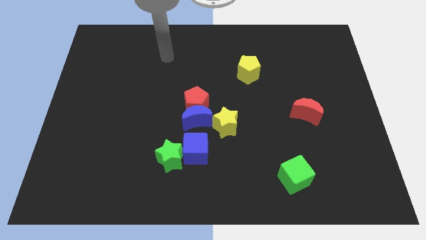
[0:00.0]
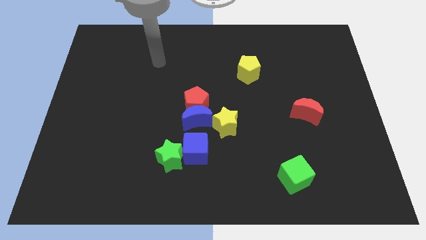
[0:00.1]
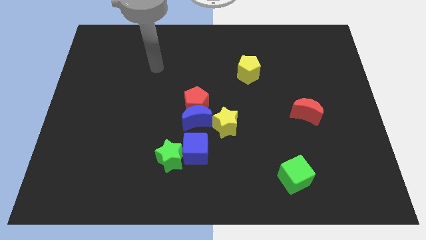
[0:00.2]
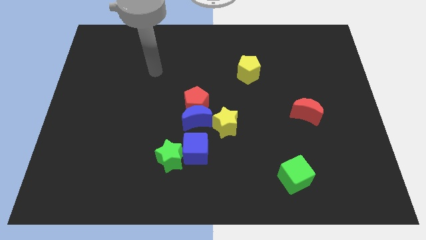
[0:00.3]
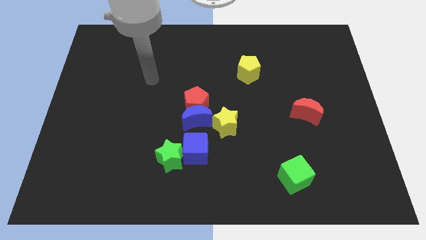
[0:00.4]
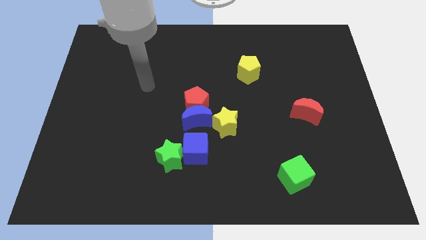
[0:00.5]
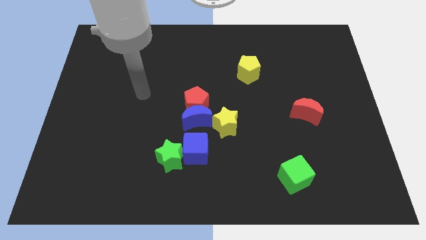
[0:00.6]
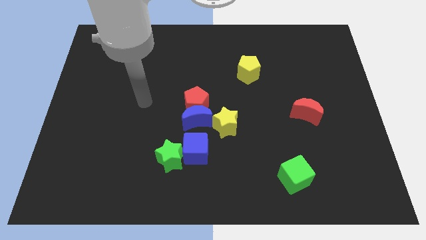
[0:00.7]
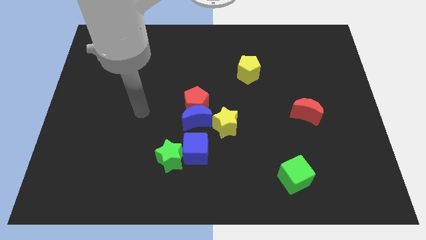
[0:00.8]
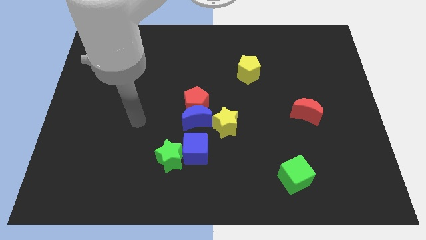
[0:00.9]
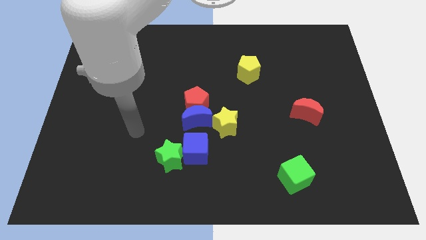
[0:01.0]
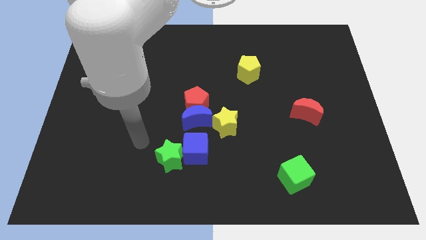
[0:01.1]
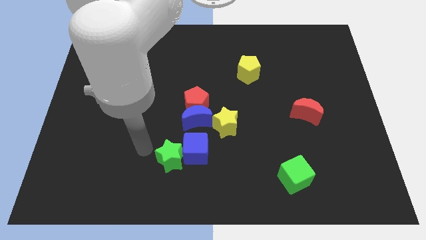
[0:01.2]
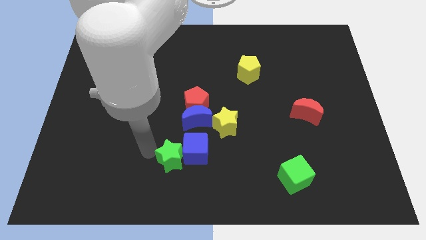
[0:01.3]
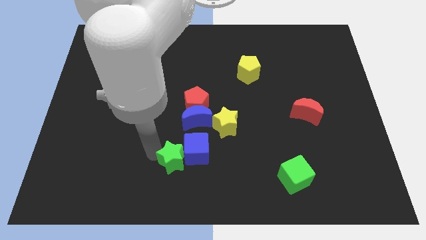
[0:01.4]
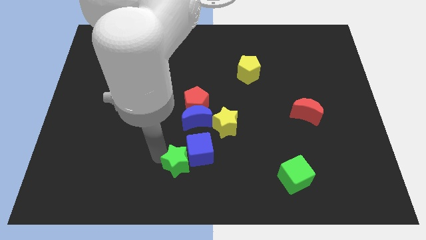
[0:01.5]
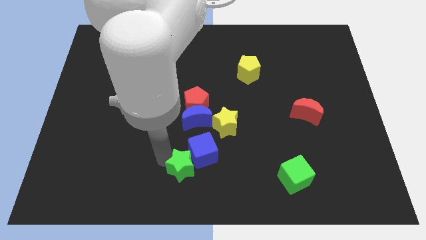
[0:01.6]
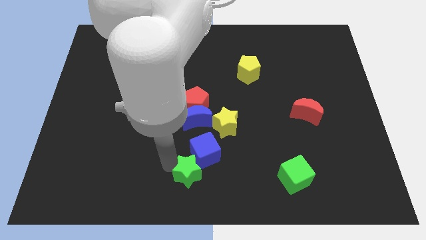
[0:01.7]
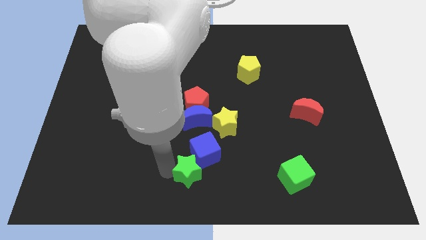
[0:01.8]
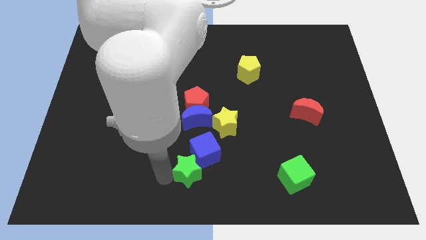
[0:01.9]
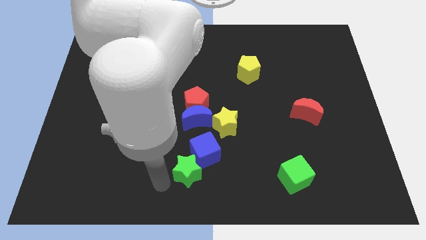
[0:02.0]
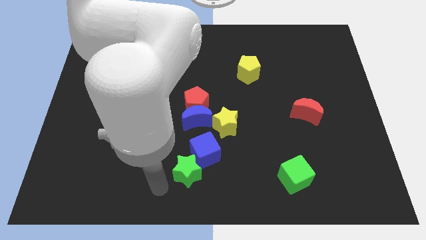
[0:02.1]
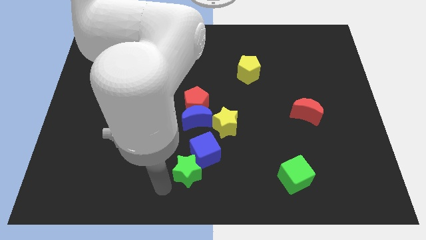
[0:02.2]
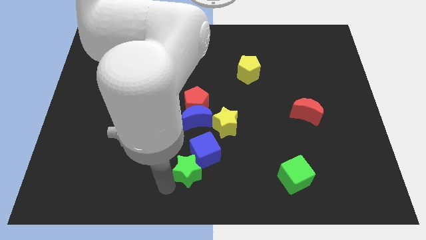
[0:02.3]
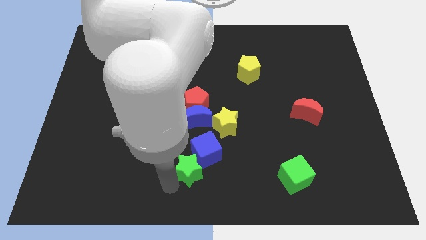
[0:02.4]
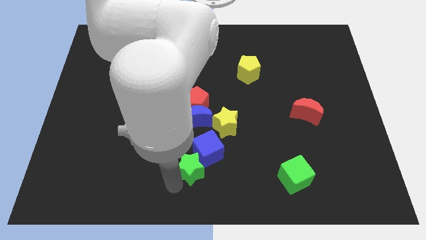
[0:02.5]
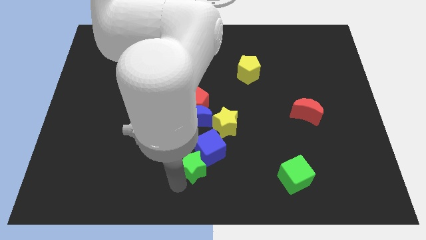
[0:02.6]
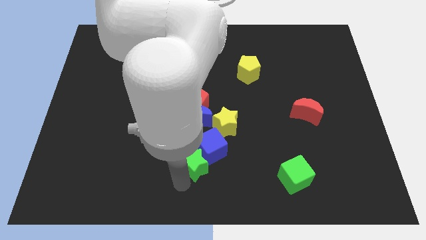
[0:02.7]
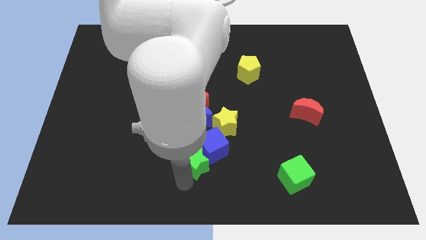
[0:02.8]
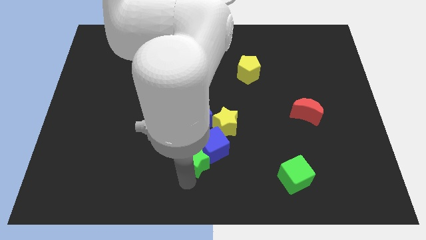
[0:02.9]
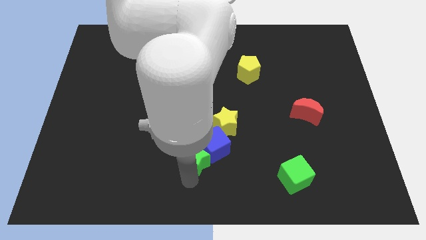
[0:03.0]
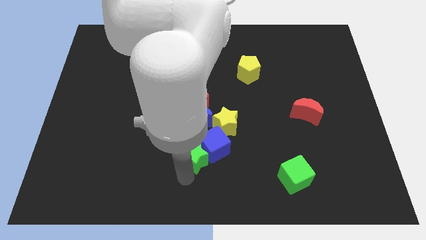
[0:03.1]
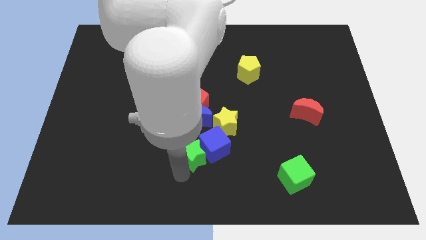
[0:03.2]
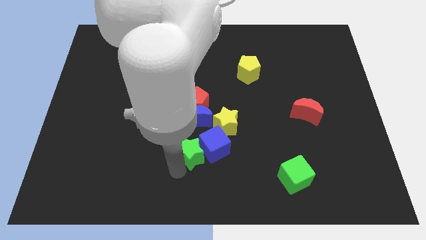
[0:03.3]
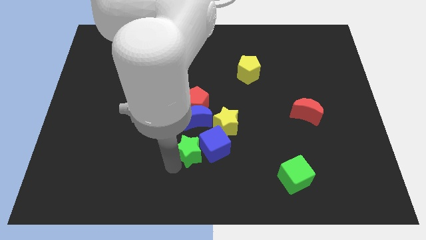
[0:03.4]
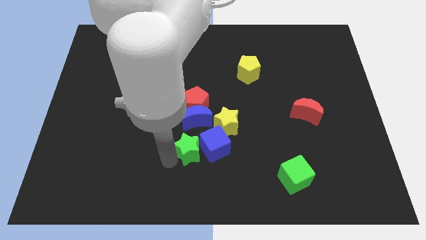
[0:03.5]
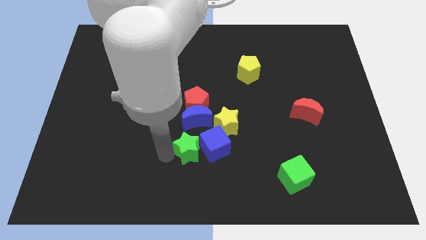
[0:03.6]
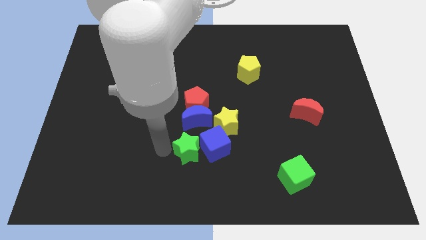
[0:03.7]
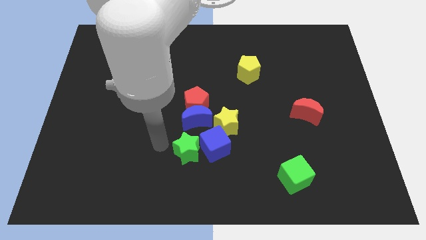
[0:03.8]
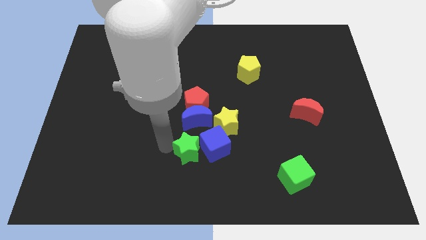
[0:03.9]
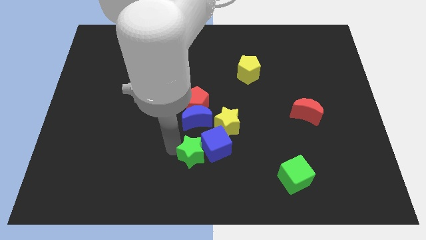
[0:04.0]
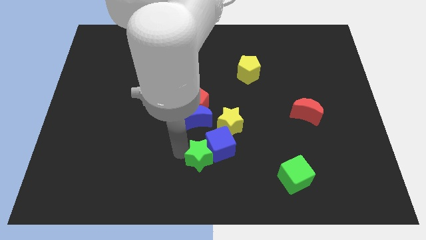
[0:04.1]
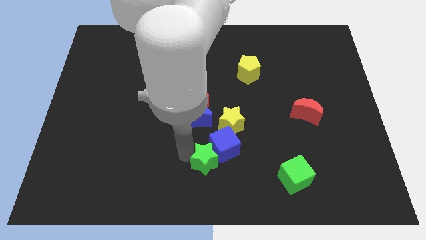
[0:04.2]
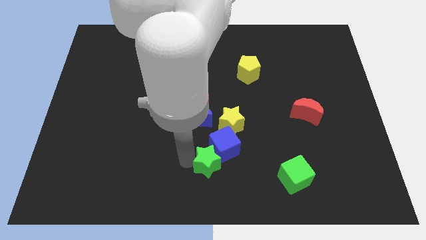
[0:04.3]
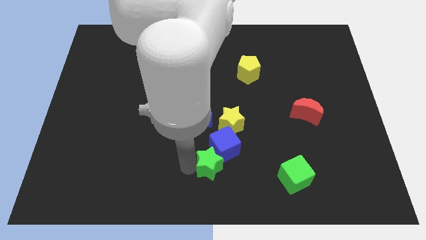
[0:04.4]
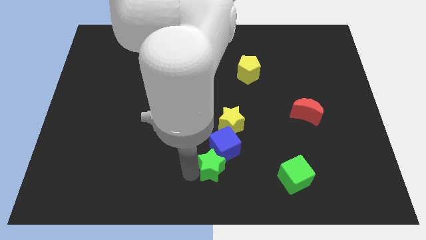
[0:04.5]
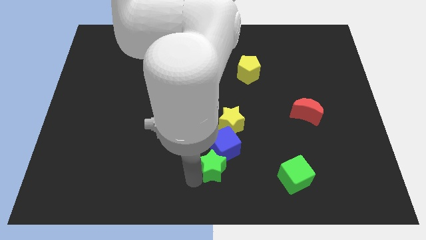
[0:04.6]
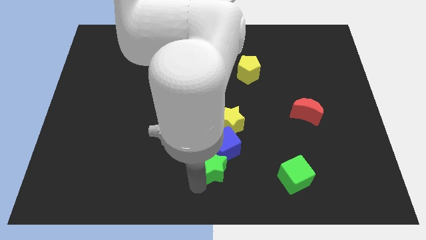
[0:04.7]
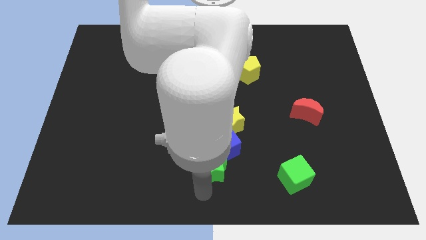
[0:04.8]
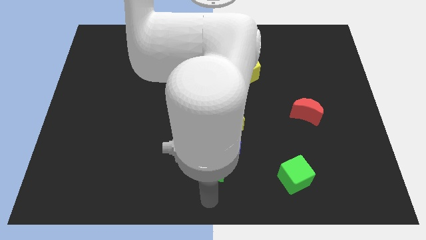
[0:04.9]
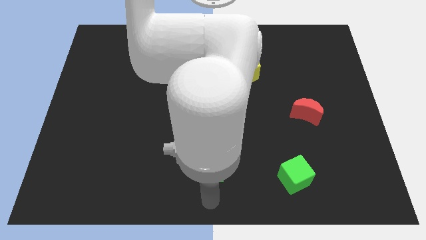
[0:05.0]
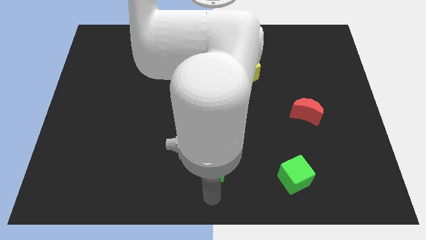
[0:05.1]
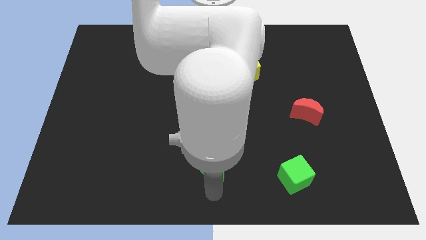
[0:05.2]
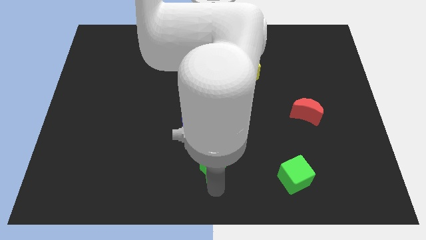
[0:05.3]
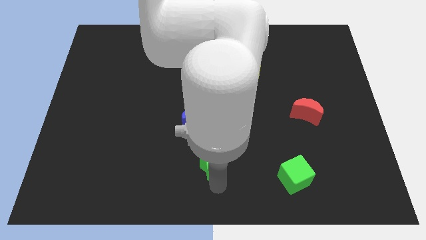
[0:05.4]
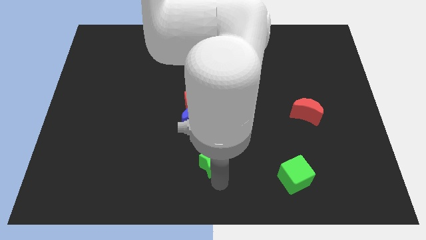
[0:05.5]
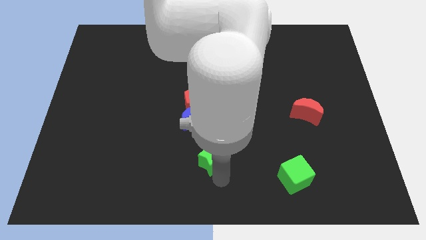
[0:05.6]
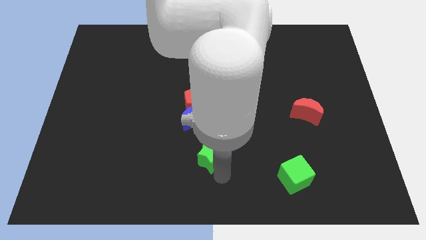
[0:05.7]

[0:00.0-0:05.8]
push the green star diagonally down and to the right of the blue moon

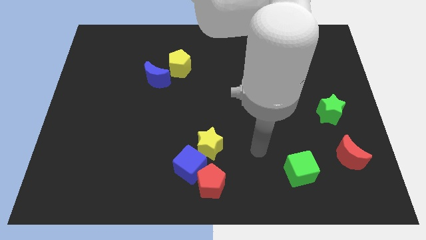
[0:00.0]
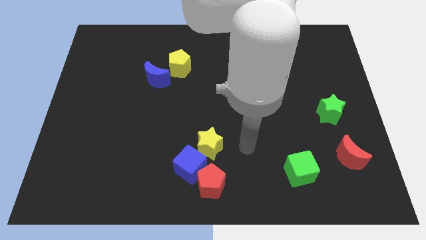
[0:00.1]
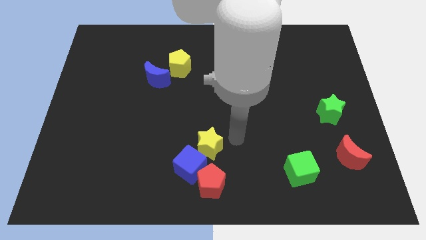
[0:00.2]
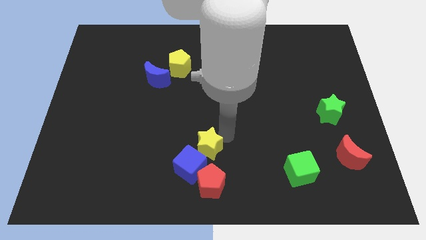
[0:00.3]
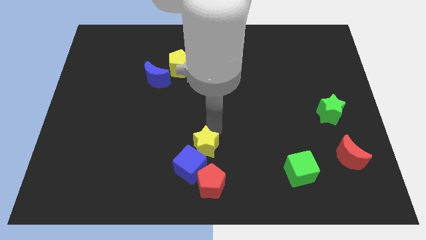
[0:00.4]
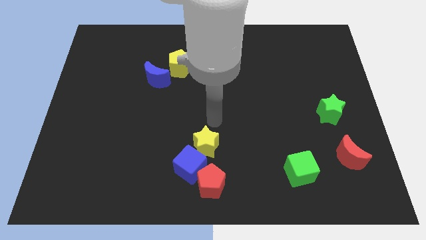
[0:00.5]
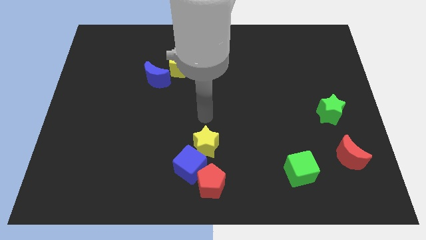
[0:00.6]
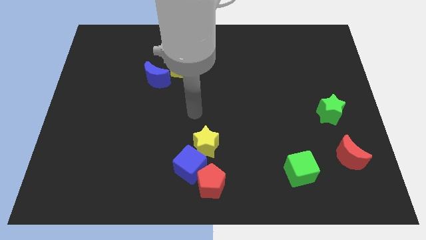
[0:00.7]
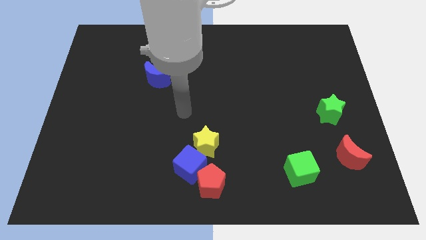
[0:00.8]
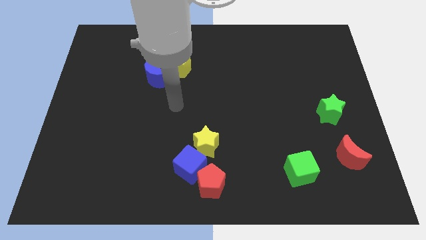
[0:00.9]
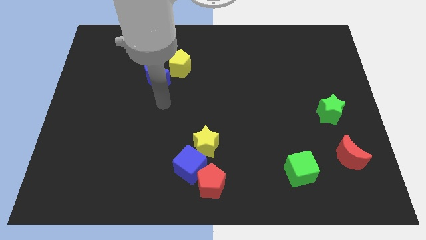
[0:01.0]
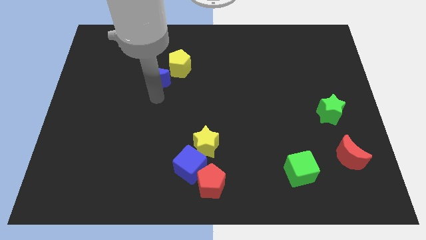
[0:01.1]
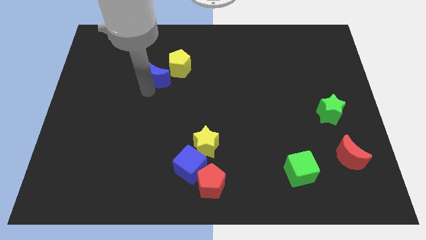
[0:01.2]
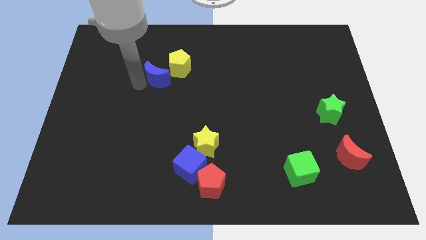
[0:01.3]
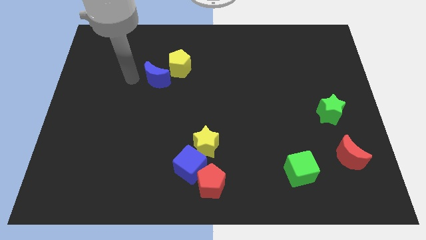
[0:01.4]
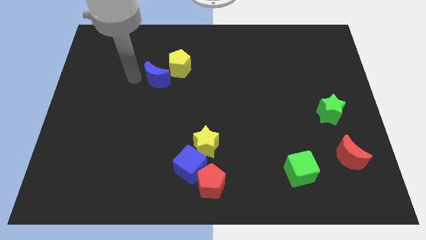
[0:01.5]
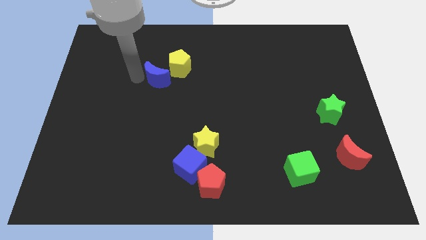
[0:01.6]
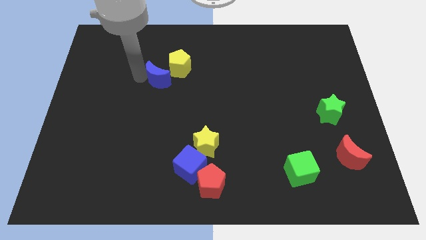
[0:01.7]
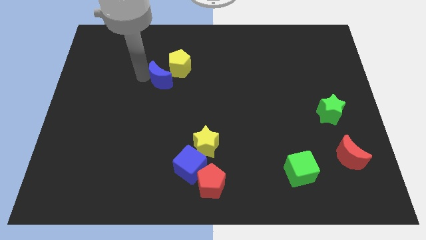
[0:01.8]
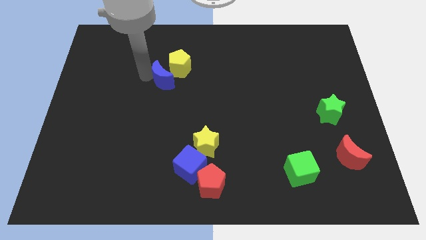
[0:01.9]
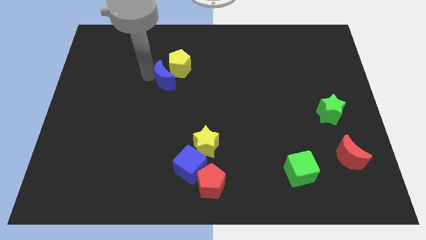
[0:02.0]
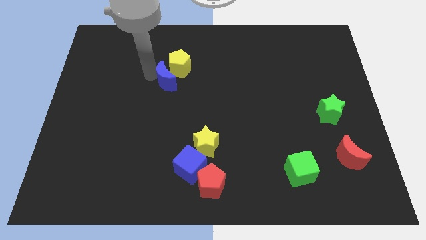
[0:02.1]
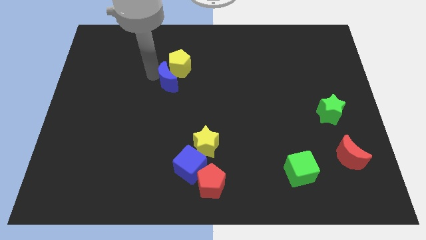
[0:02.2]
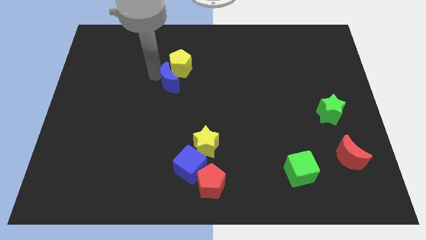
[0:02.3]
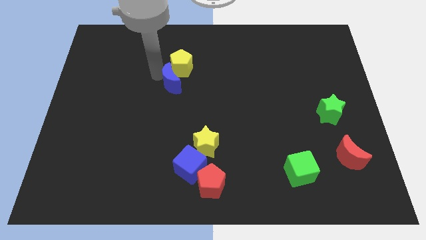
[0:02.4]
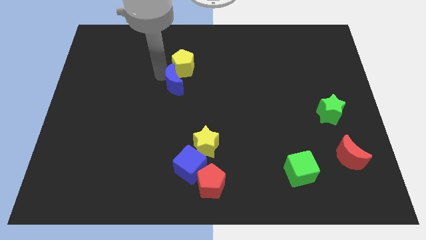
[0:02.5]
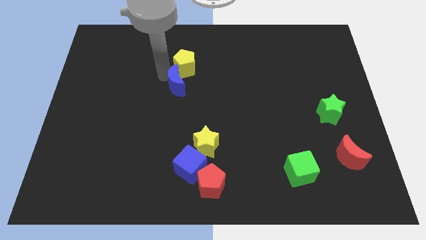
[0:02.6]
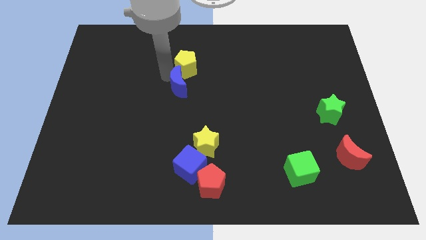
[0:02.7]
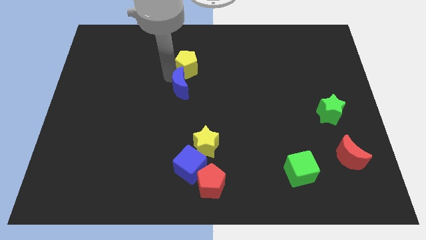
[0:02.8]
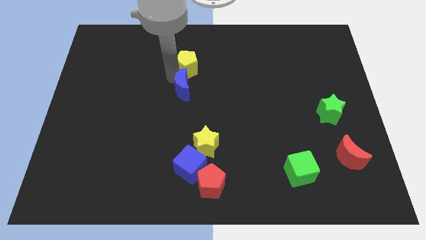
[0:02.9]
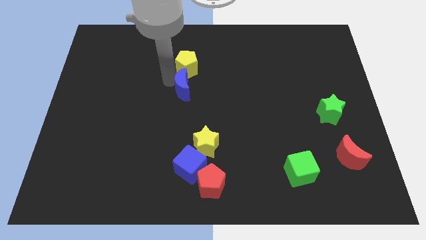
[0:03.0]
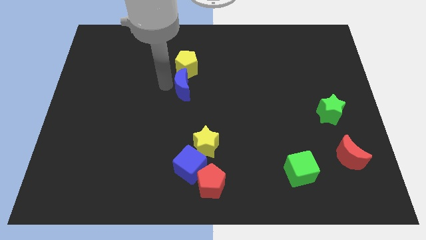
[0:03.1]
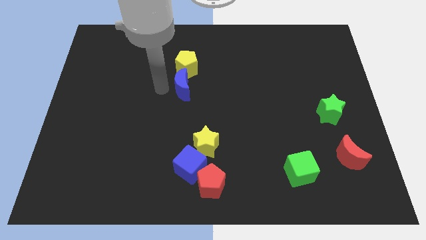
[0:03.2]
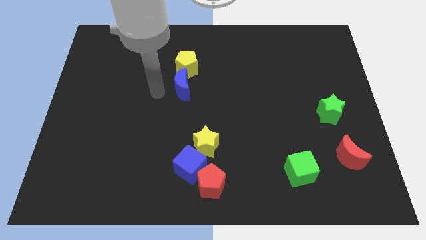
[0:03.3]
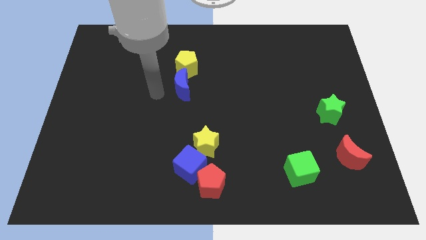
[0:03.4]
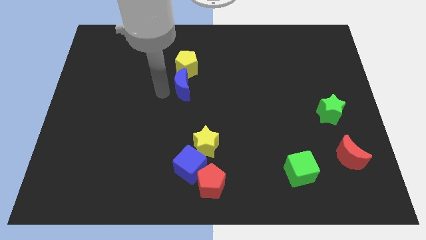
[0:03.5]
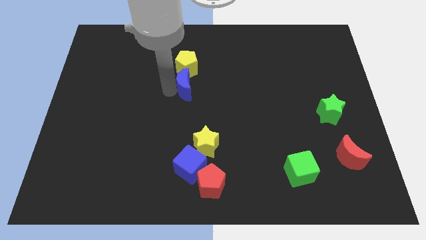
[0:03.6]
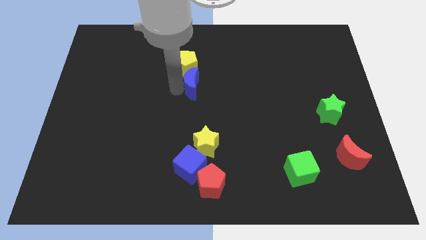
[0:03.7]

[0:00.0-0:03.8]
push the blue moon diagonally down and to the right of the yellow pentagon
